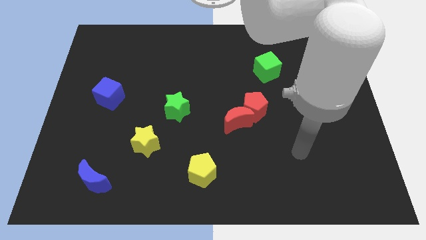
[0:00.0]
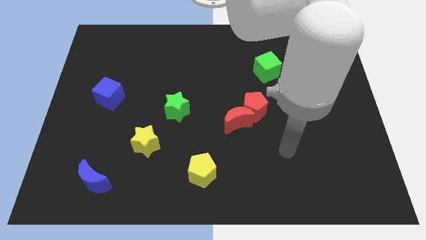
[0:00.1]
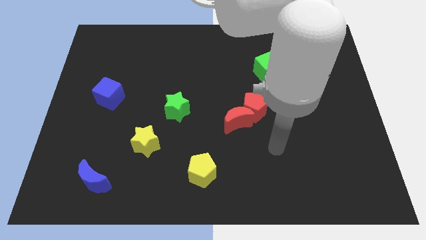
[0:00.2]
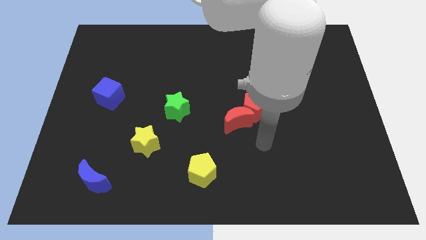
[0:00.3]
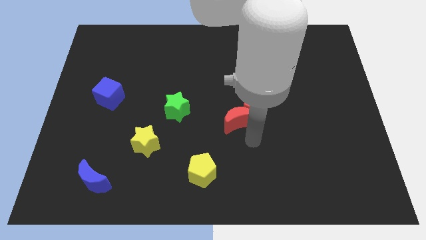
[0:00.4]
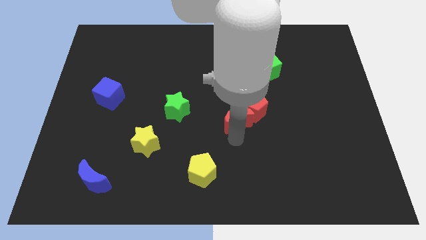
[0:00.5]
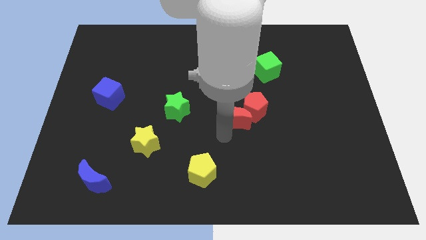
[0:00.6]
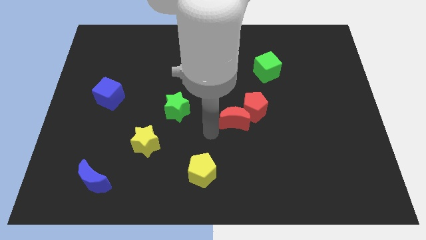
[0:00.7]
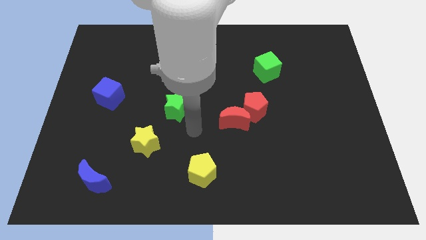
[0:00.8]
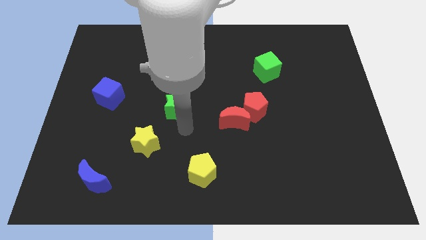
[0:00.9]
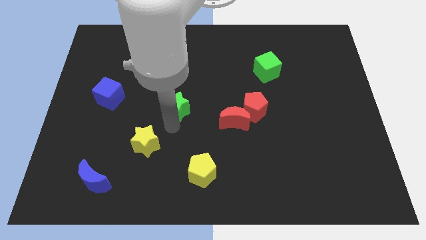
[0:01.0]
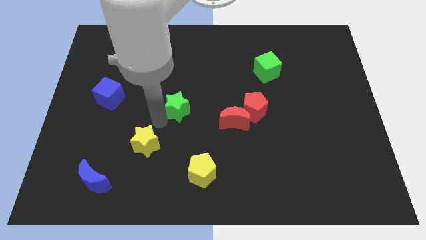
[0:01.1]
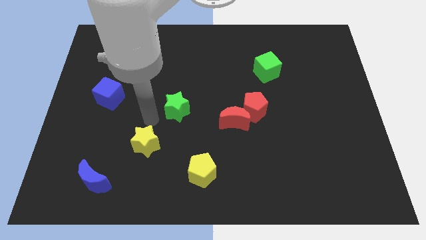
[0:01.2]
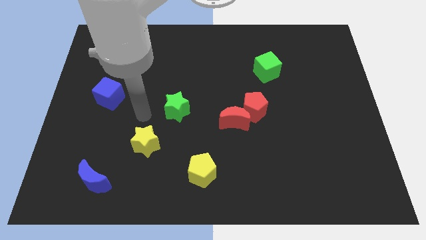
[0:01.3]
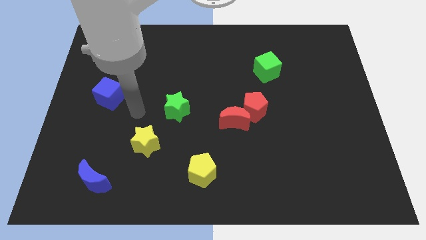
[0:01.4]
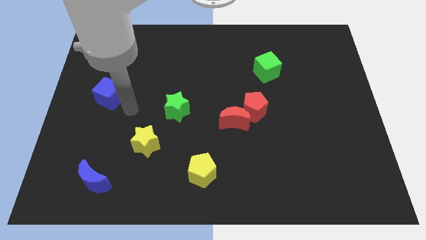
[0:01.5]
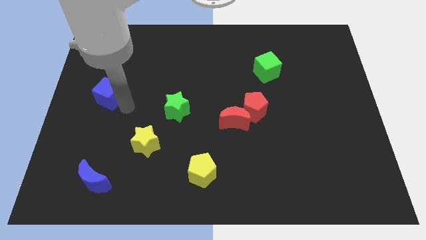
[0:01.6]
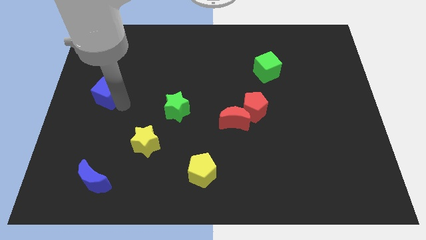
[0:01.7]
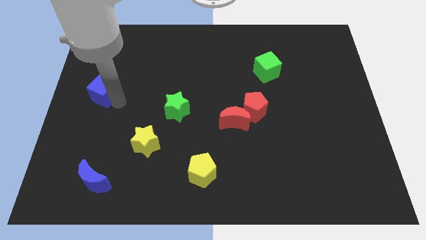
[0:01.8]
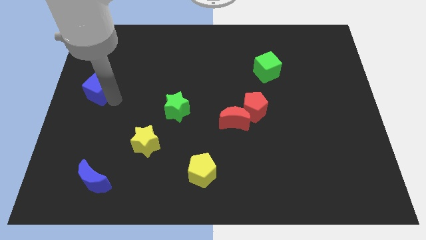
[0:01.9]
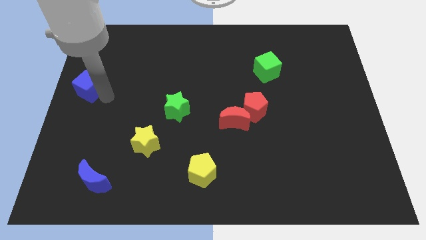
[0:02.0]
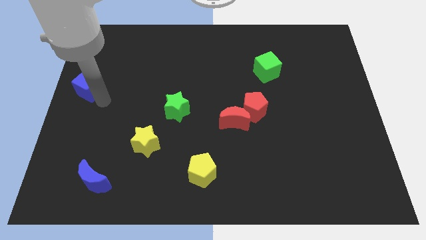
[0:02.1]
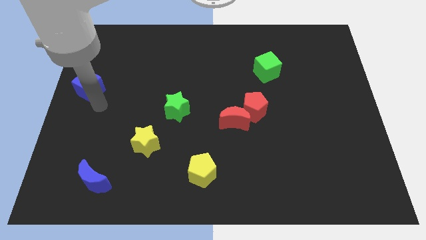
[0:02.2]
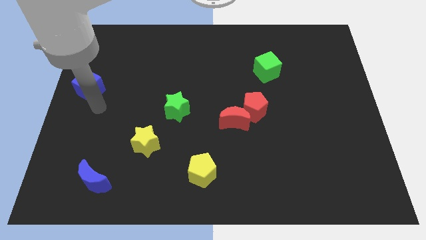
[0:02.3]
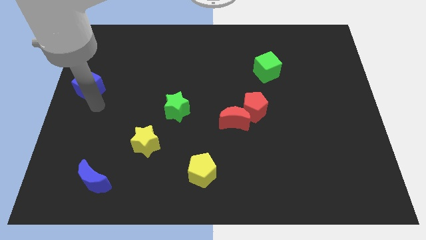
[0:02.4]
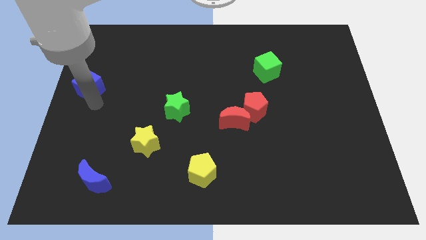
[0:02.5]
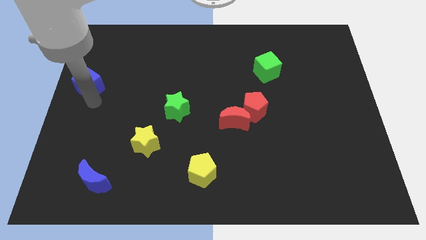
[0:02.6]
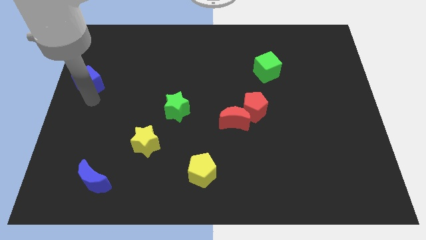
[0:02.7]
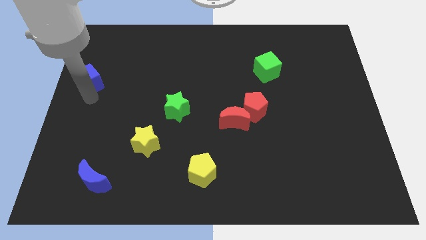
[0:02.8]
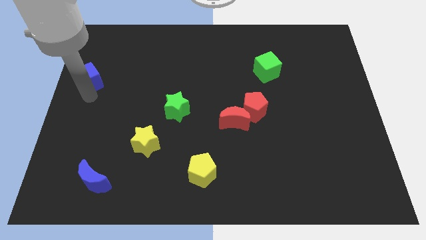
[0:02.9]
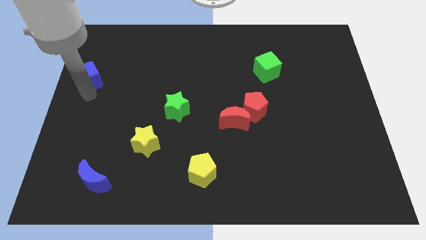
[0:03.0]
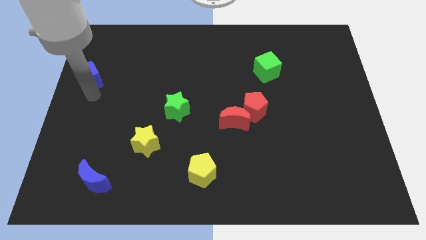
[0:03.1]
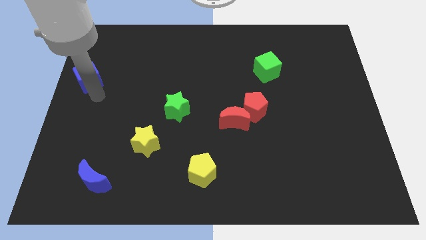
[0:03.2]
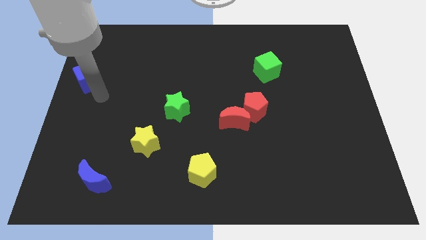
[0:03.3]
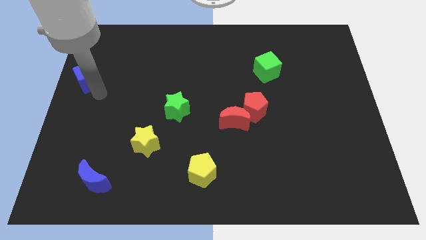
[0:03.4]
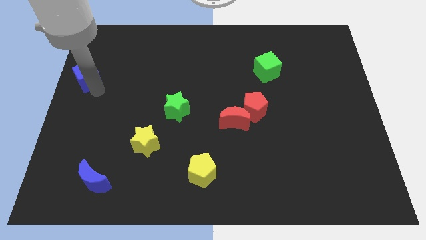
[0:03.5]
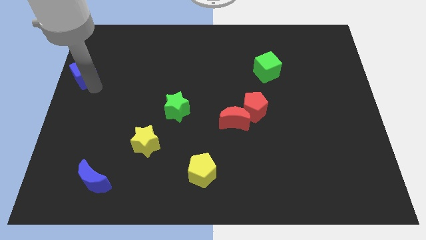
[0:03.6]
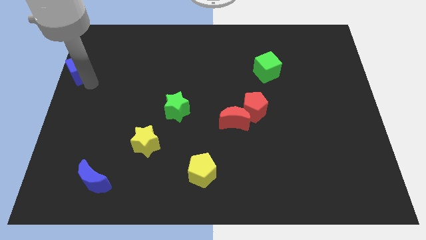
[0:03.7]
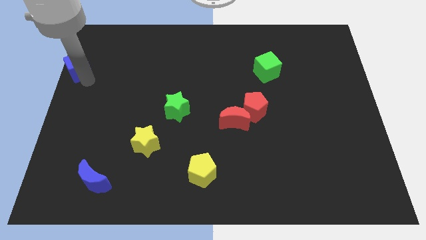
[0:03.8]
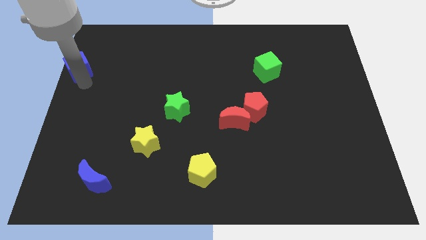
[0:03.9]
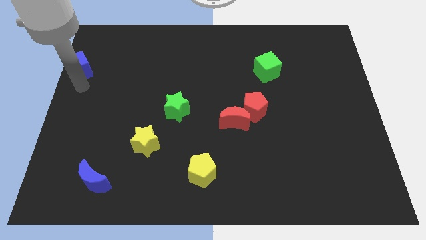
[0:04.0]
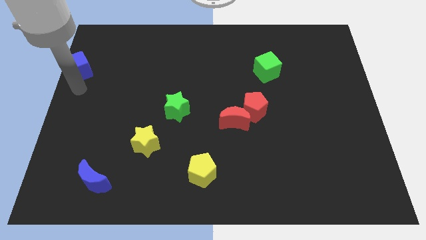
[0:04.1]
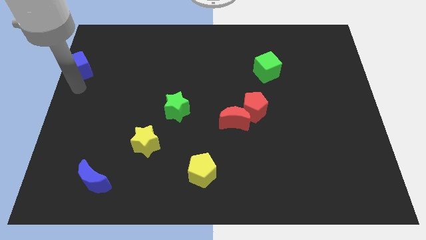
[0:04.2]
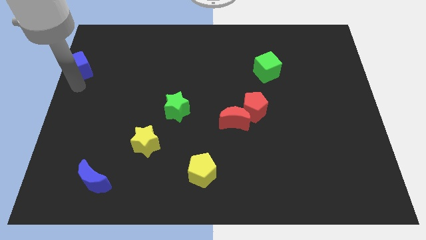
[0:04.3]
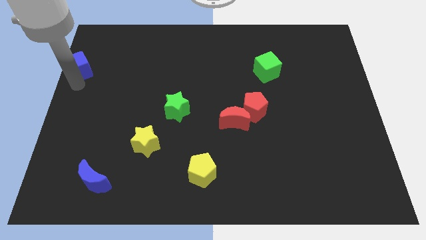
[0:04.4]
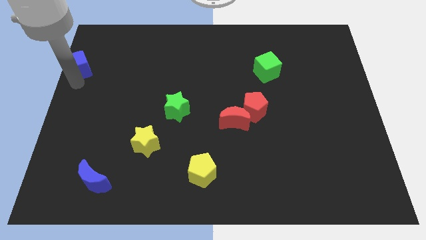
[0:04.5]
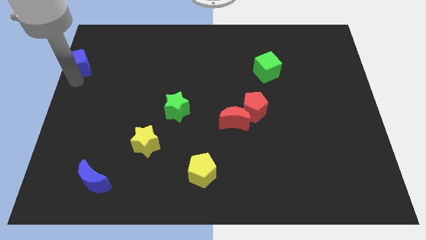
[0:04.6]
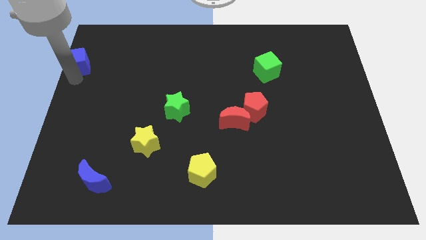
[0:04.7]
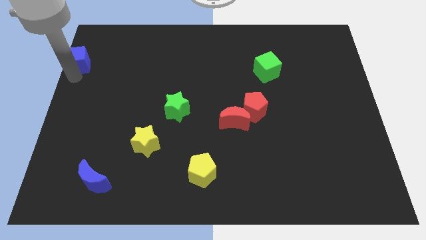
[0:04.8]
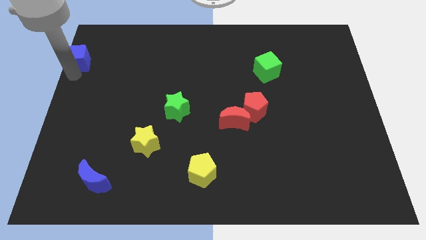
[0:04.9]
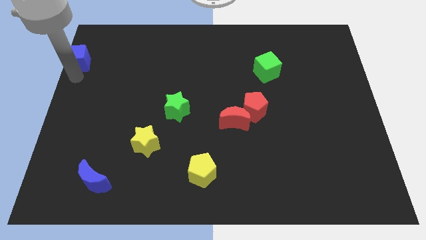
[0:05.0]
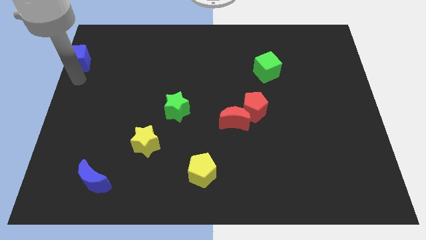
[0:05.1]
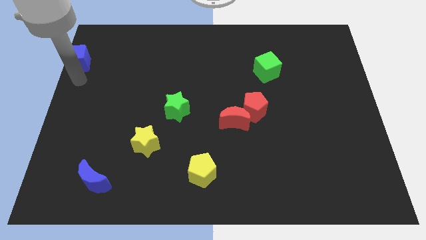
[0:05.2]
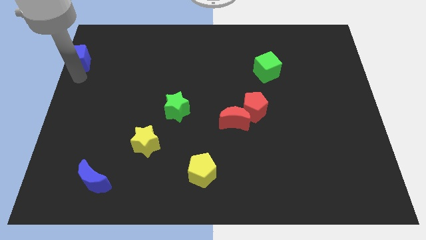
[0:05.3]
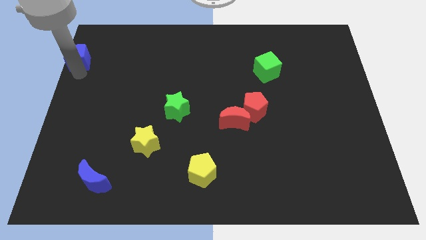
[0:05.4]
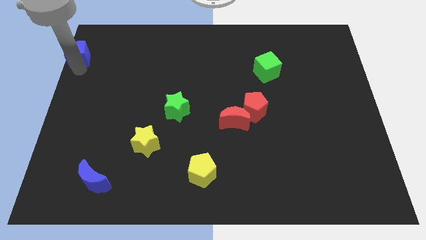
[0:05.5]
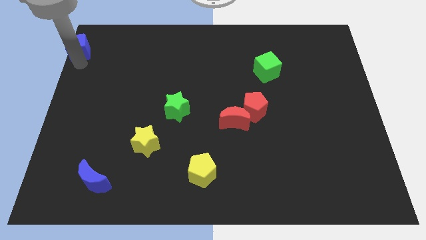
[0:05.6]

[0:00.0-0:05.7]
move the blue cube to the upper left corner

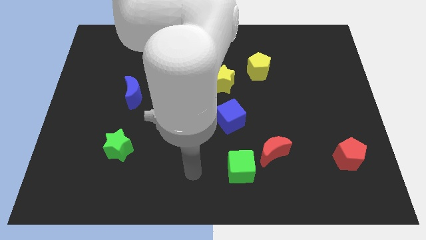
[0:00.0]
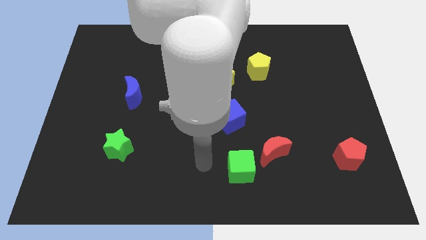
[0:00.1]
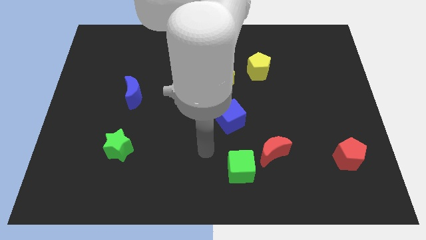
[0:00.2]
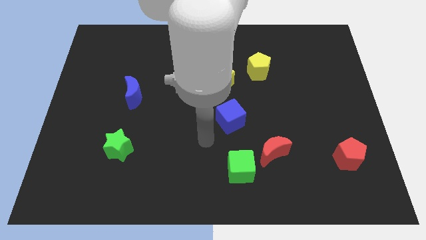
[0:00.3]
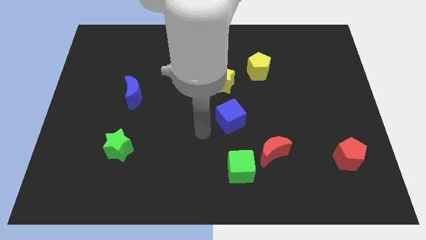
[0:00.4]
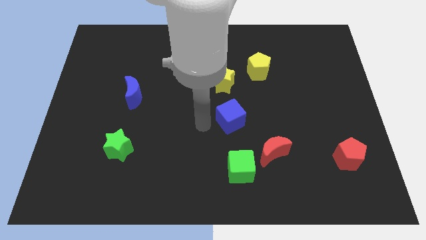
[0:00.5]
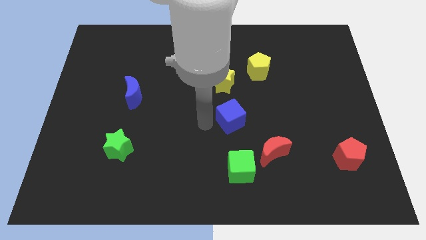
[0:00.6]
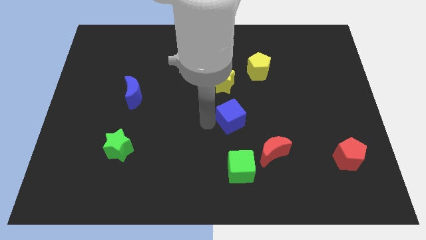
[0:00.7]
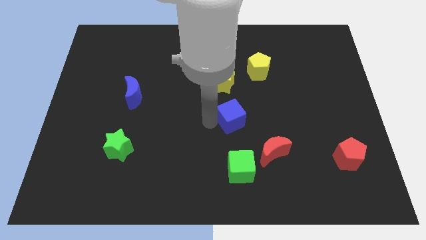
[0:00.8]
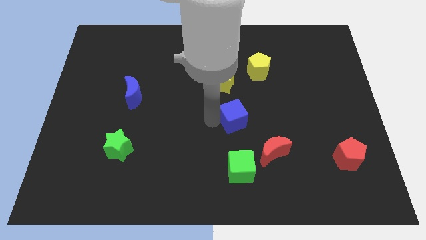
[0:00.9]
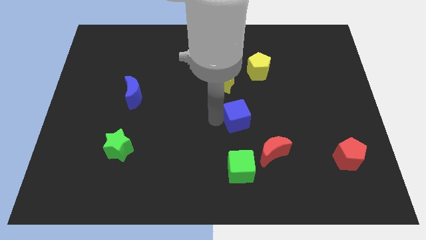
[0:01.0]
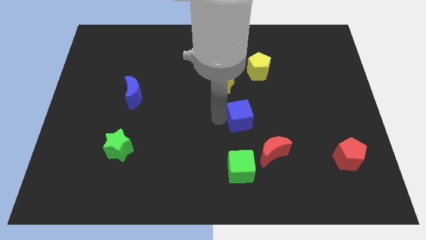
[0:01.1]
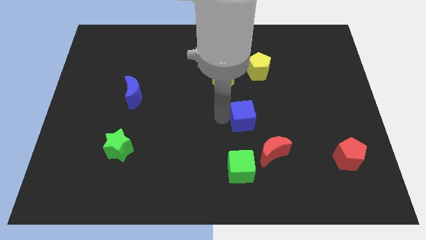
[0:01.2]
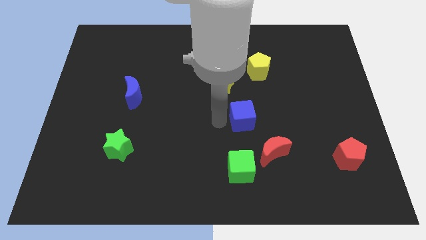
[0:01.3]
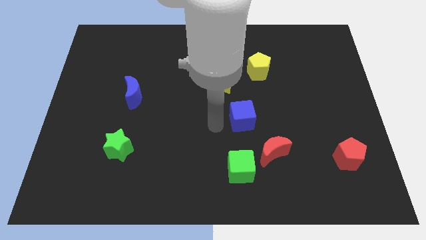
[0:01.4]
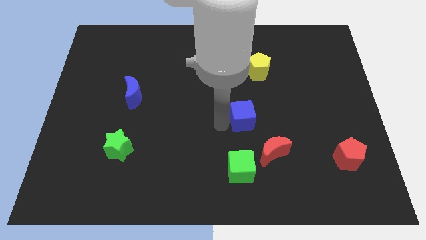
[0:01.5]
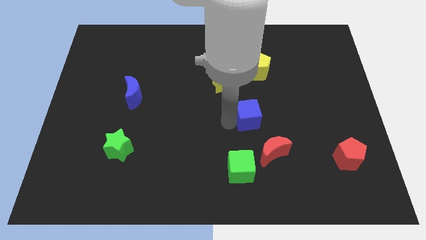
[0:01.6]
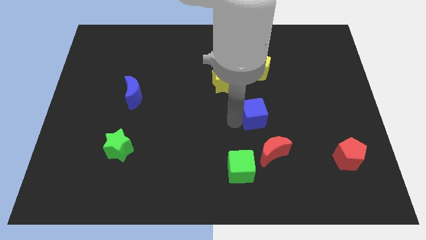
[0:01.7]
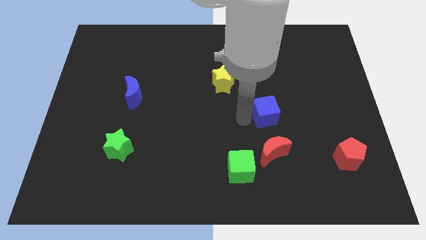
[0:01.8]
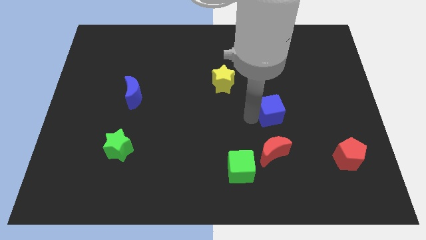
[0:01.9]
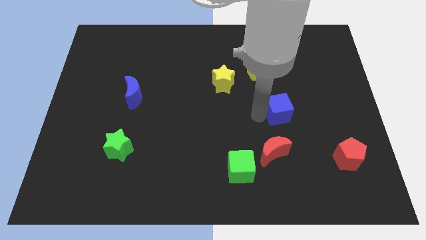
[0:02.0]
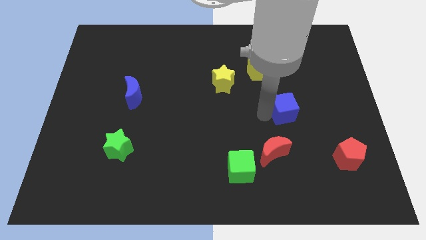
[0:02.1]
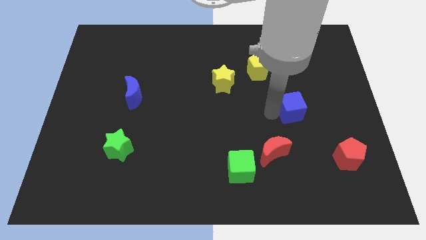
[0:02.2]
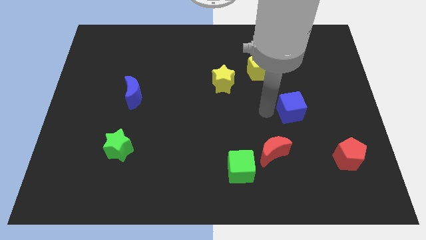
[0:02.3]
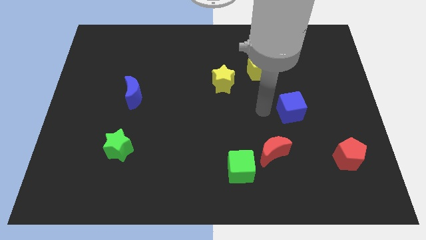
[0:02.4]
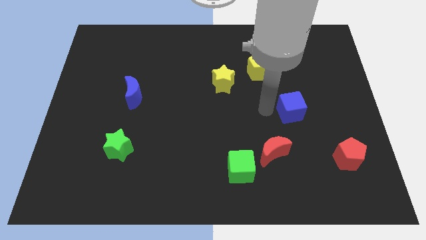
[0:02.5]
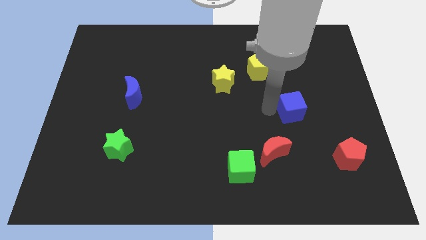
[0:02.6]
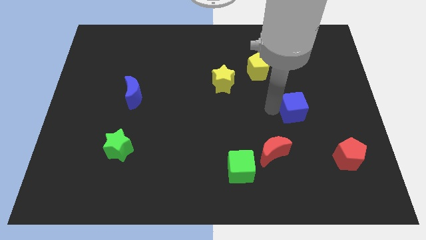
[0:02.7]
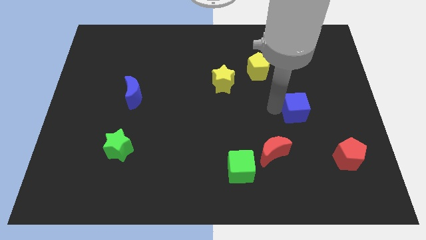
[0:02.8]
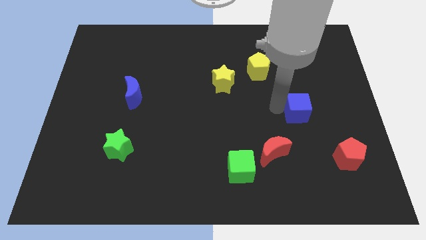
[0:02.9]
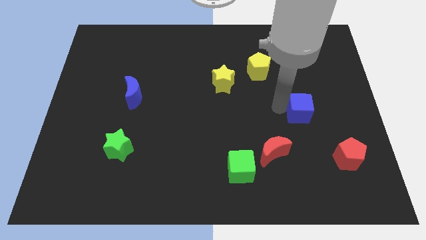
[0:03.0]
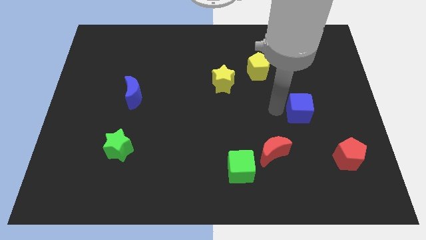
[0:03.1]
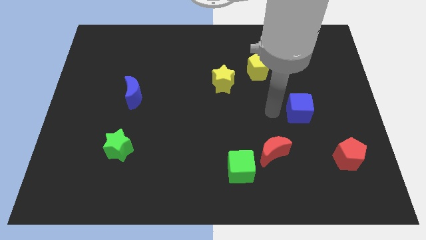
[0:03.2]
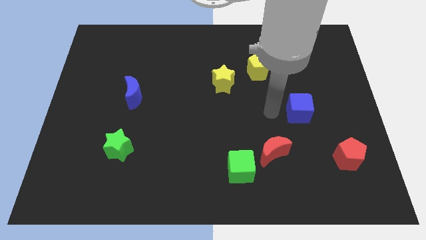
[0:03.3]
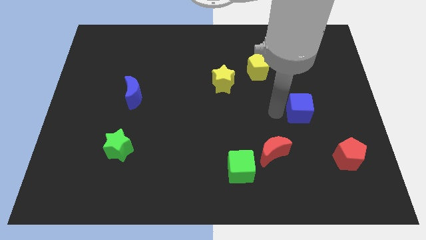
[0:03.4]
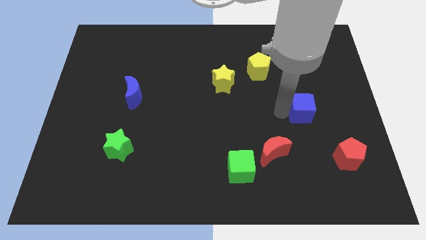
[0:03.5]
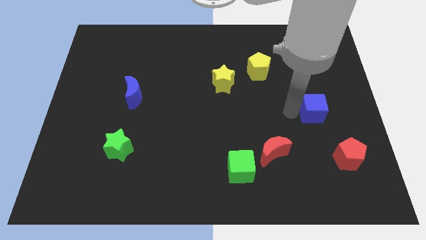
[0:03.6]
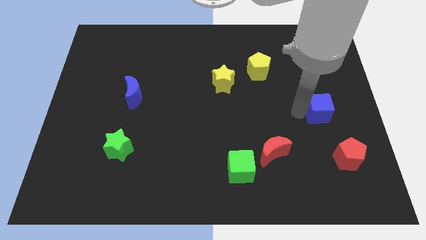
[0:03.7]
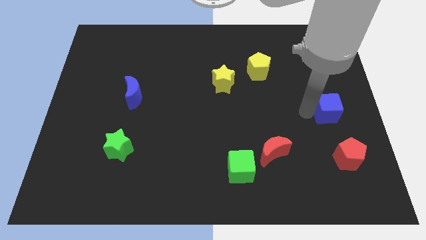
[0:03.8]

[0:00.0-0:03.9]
slide the blue cube to the center right
